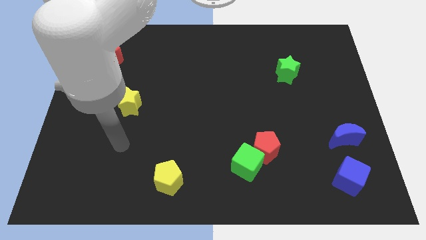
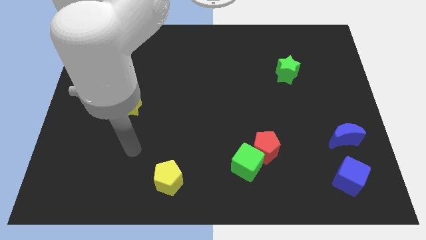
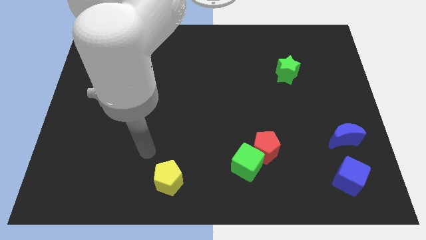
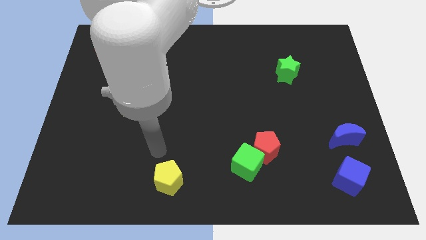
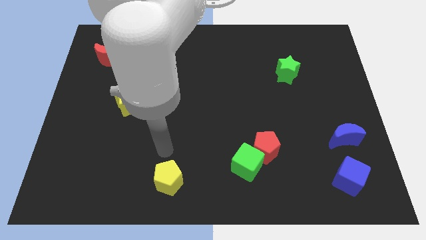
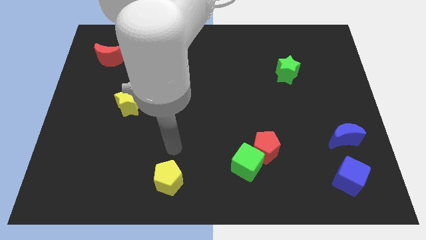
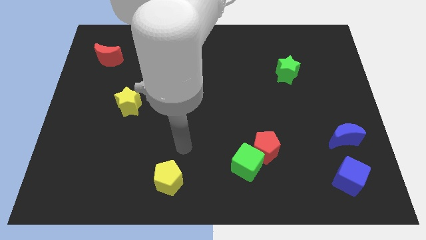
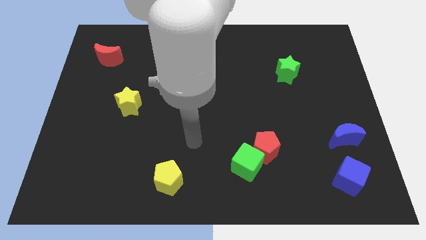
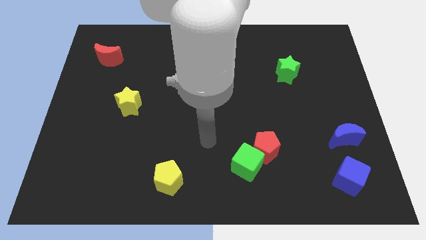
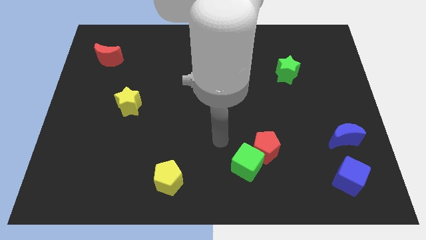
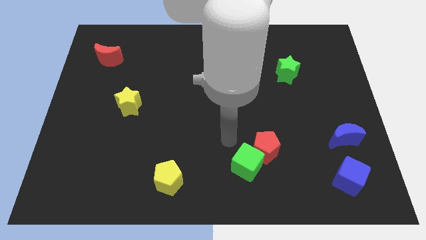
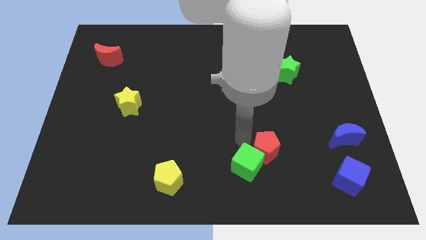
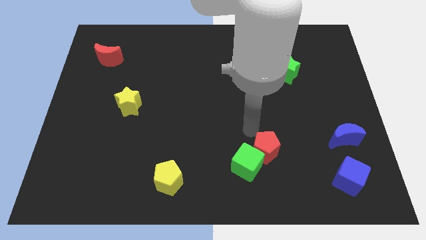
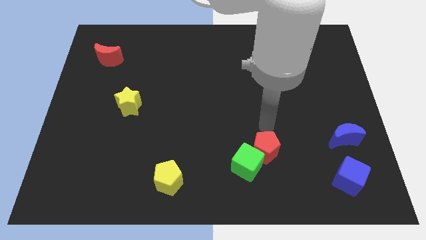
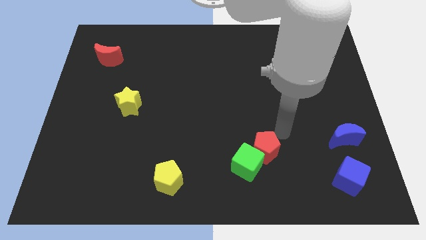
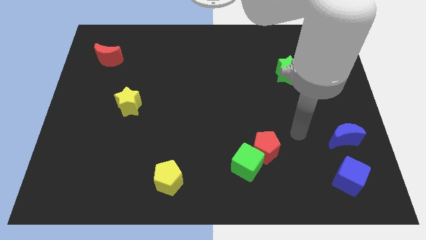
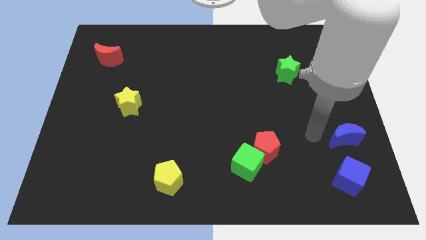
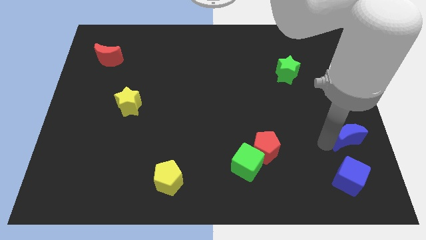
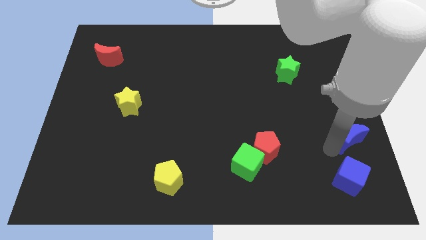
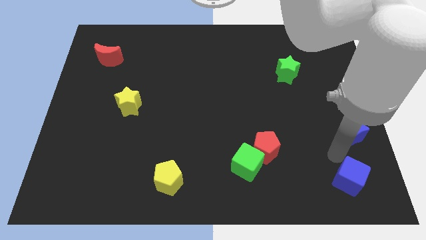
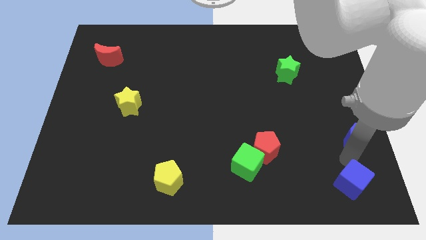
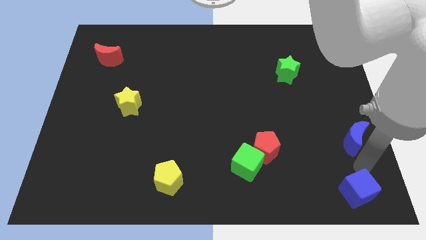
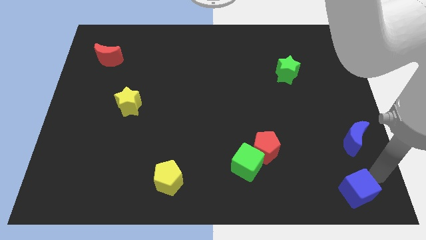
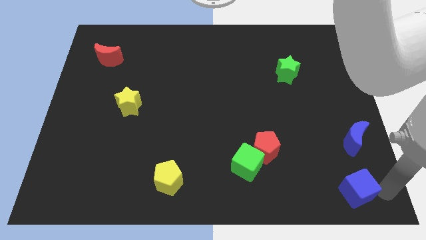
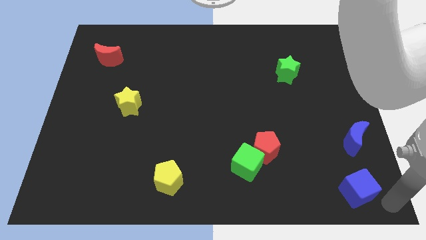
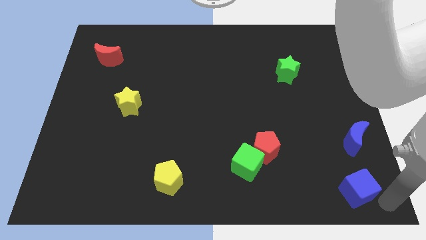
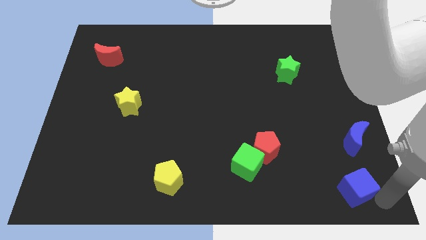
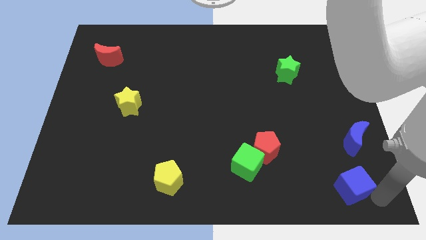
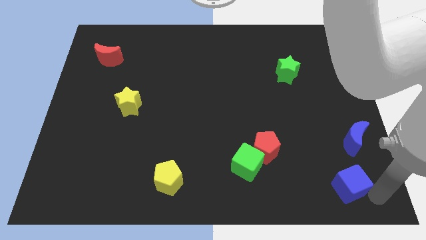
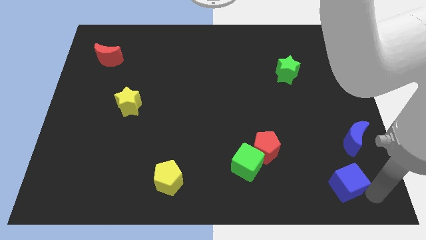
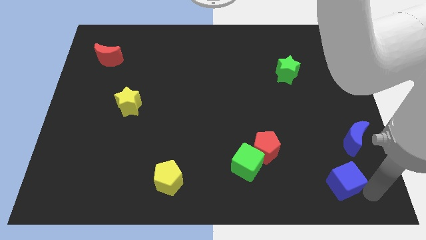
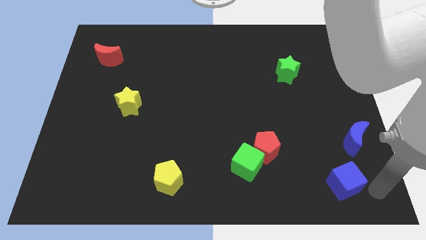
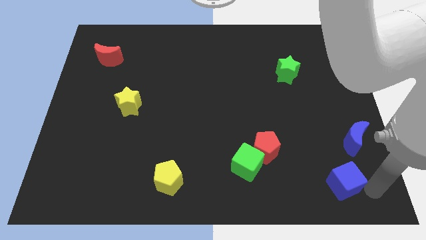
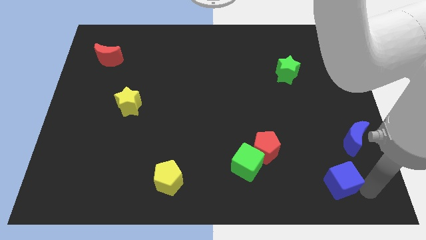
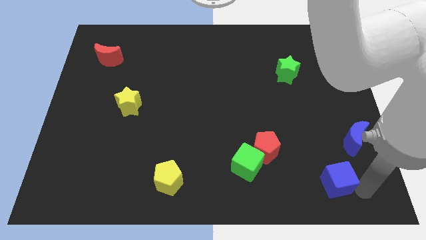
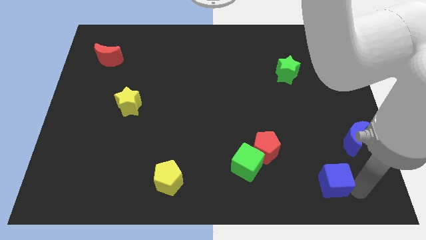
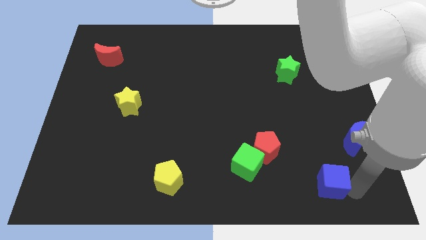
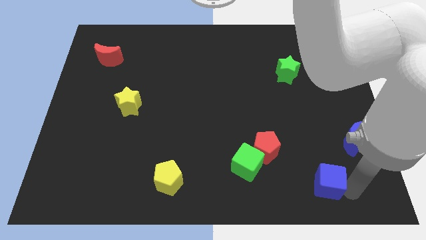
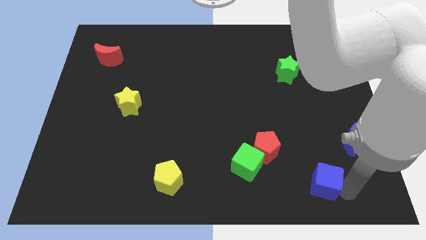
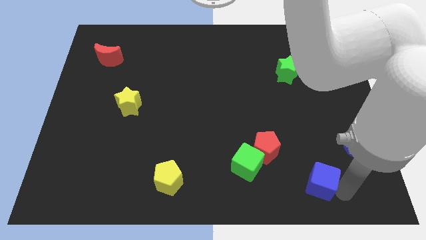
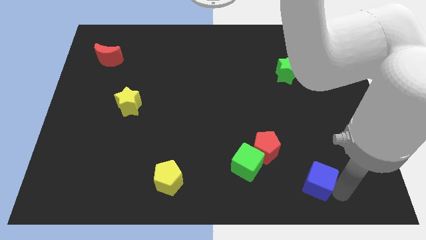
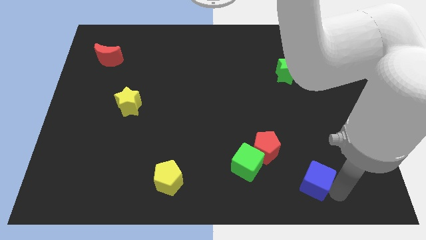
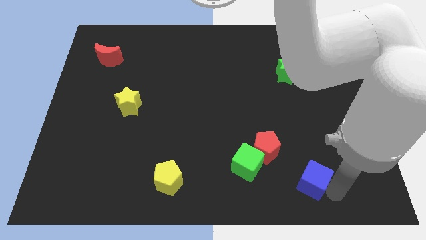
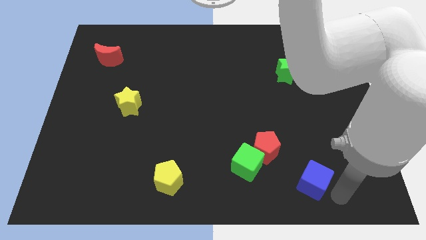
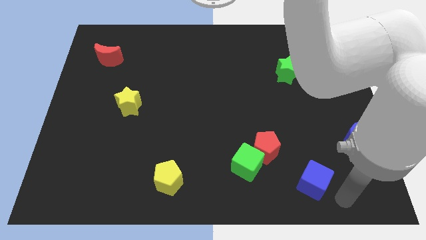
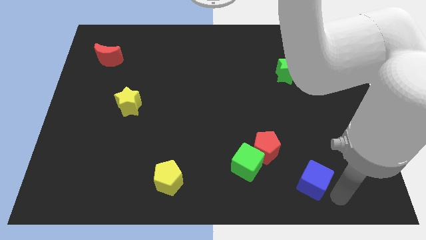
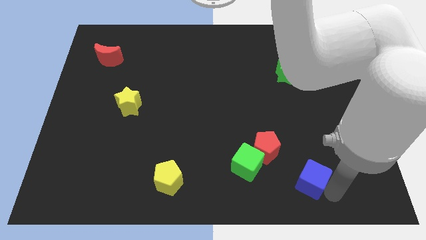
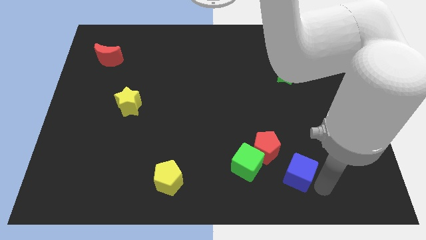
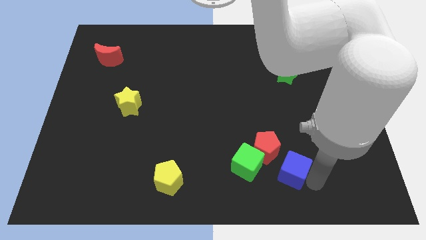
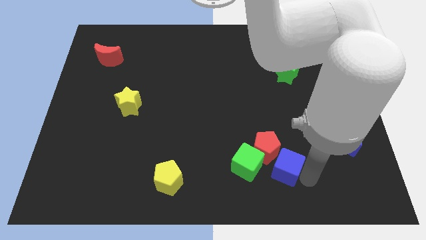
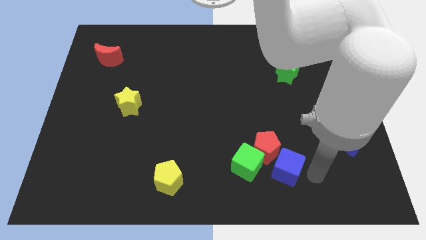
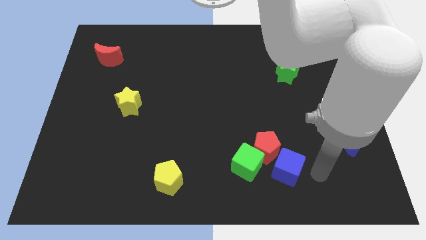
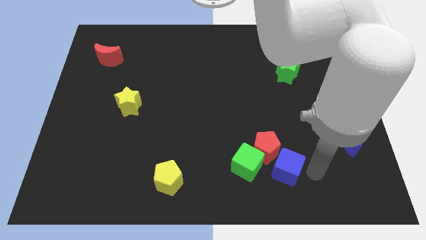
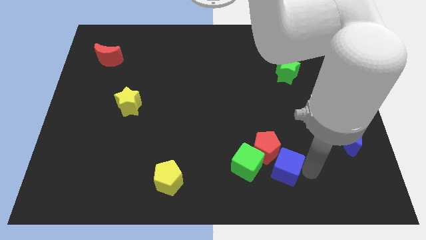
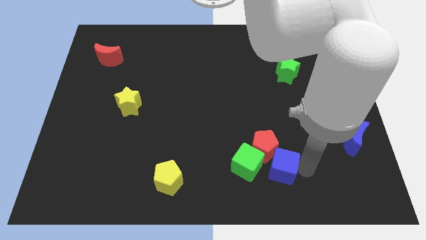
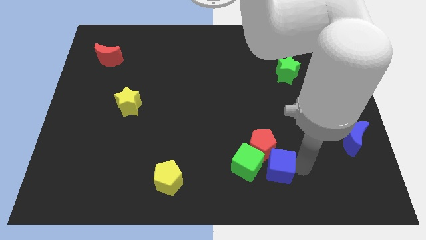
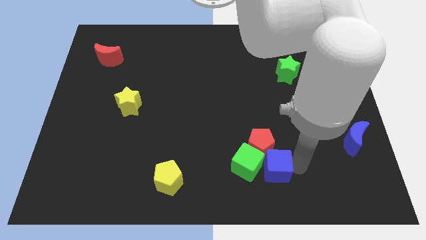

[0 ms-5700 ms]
slide the blue cube close to the green cube

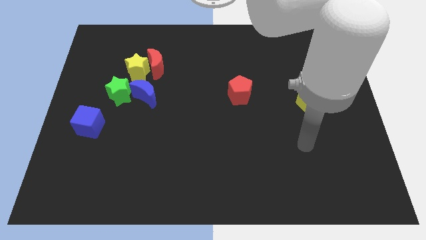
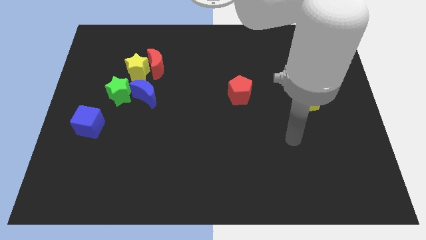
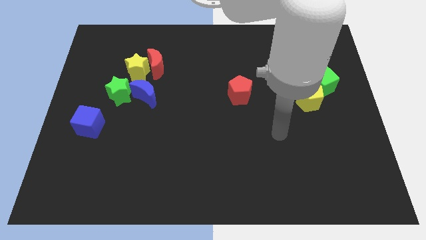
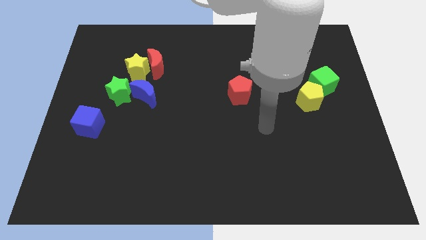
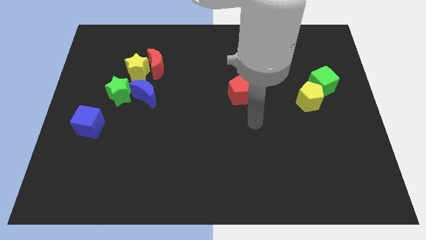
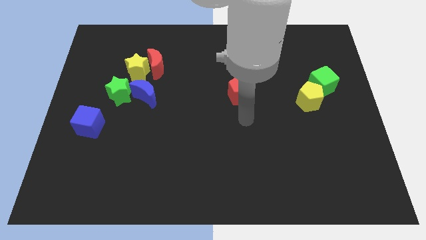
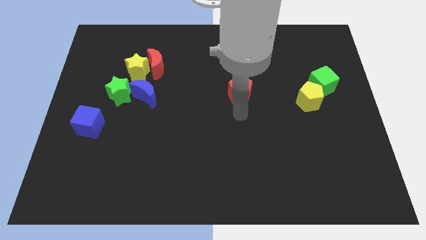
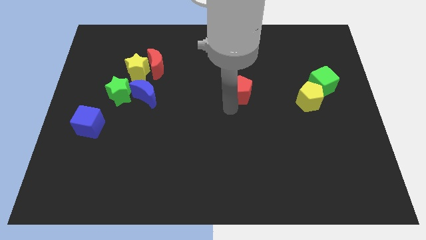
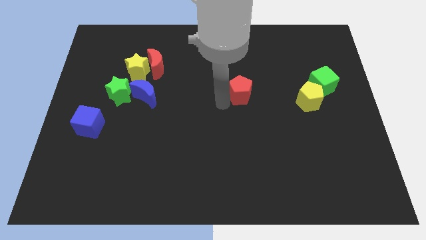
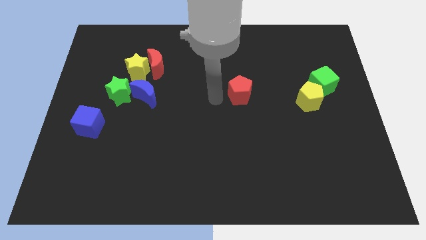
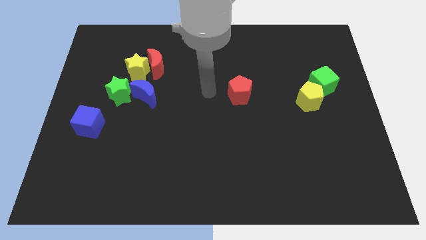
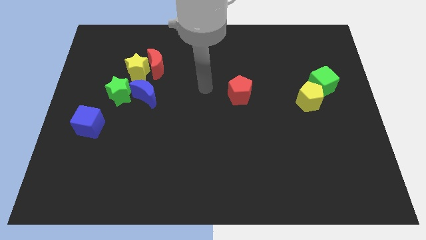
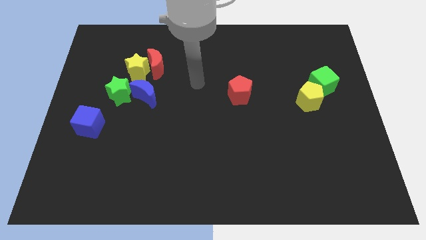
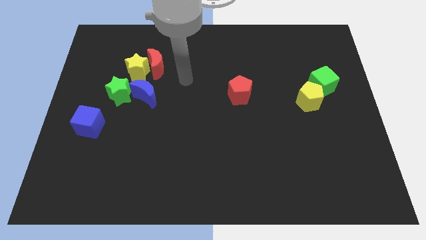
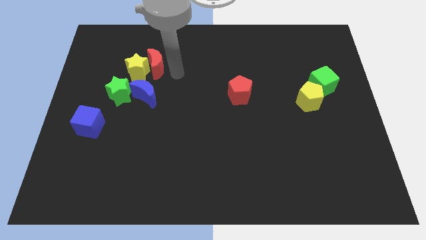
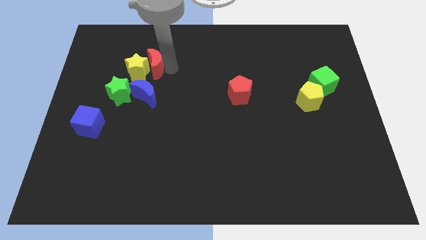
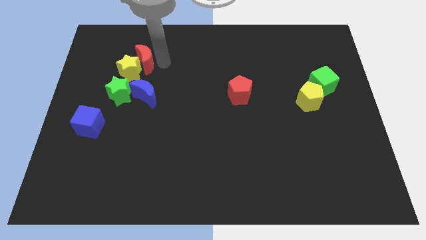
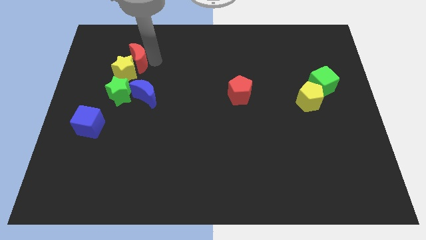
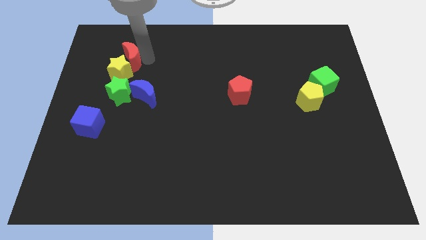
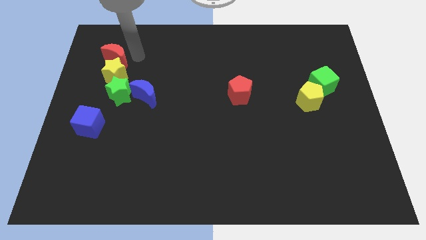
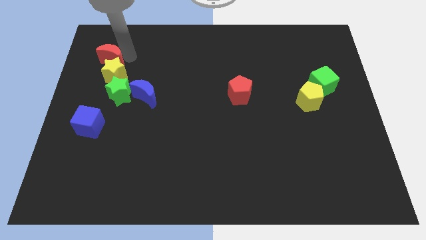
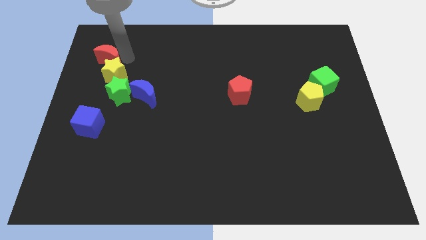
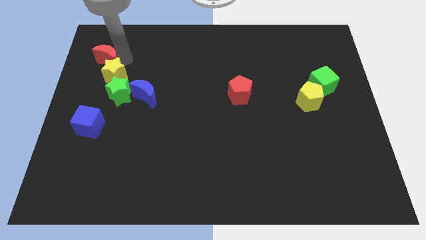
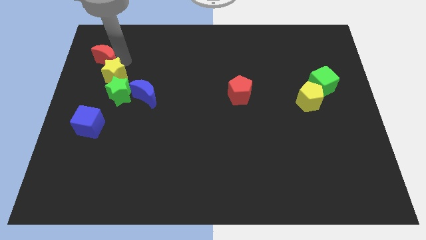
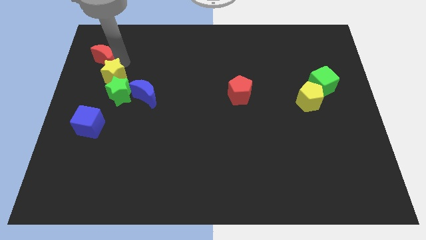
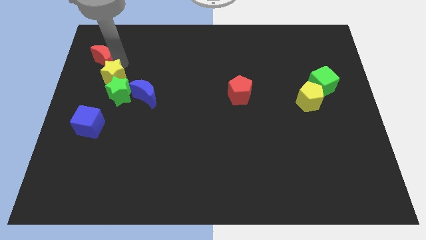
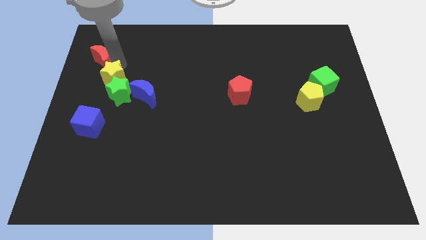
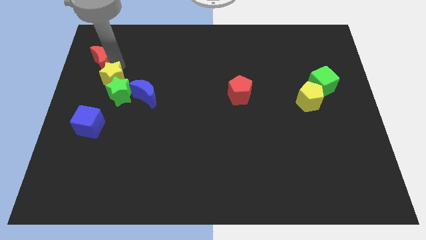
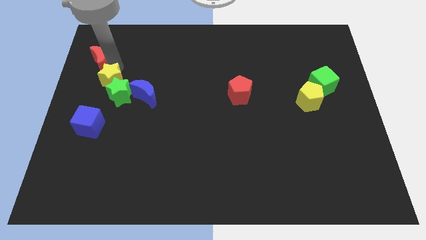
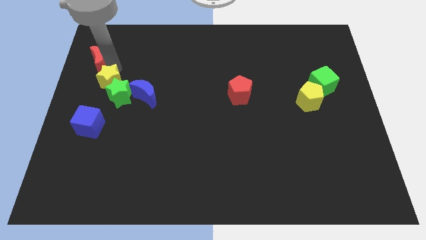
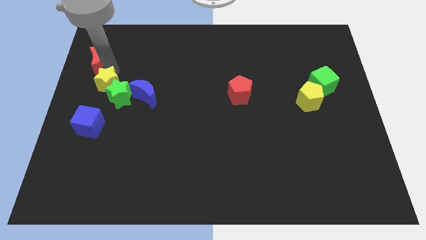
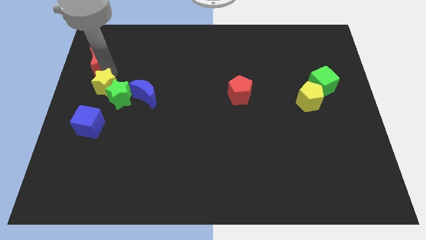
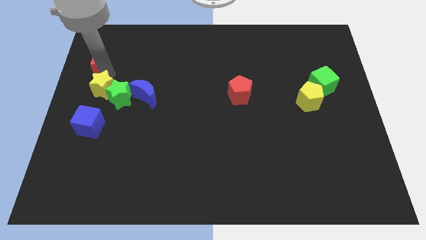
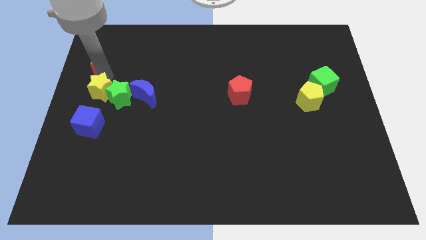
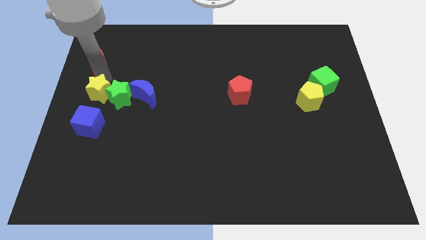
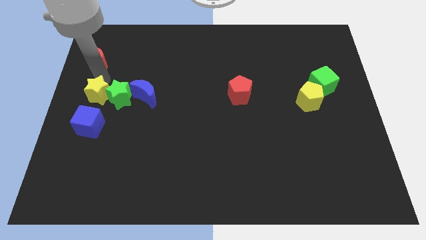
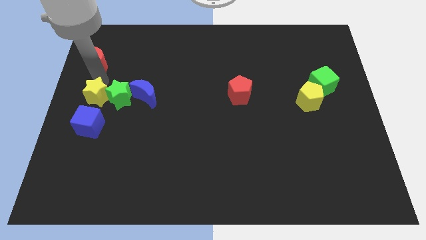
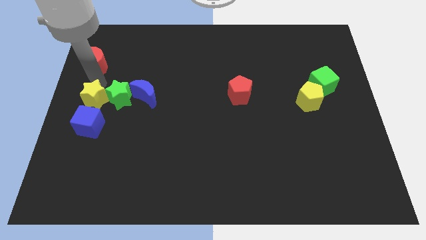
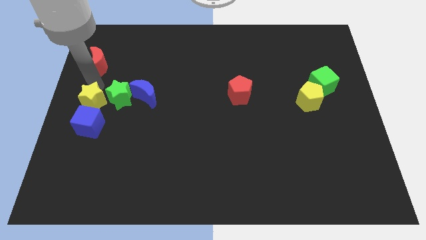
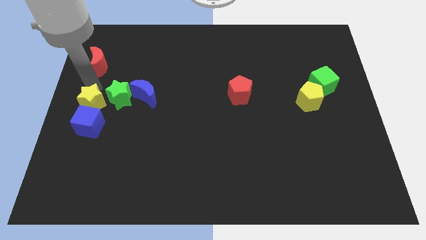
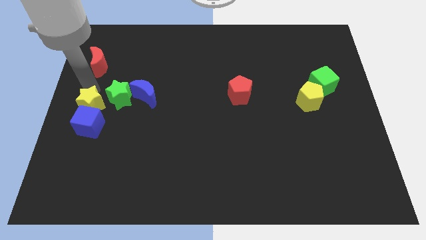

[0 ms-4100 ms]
move the yellow star next to the blue cube
